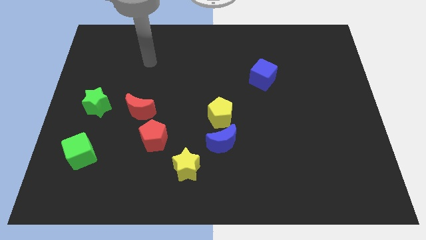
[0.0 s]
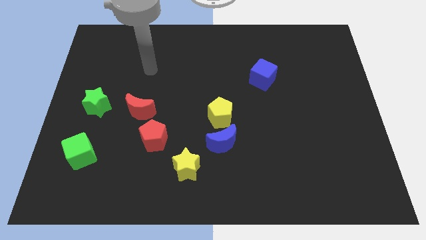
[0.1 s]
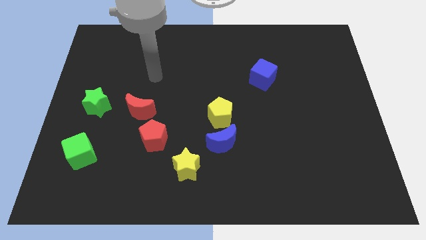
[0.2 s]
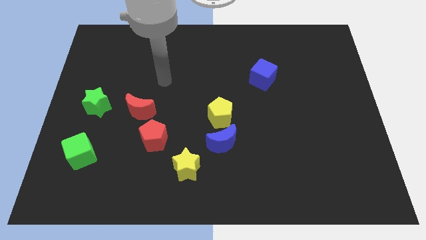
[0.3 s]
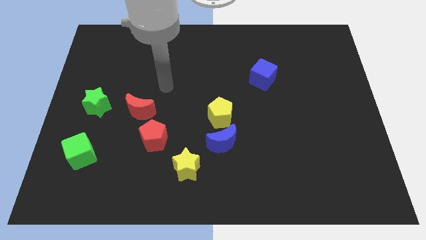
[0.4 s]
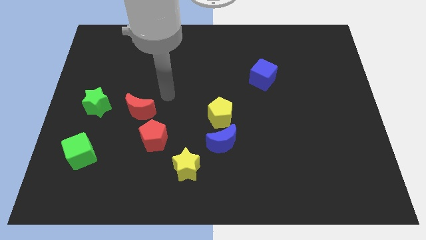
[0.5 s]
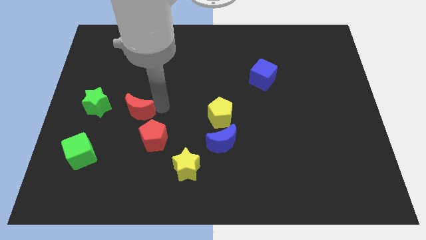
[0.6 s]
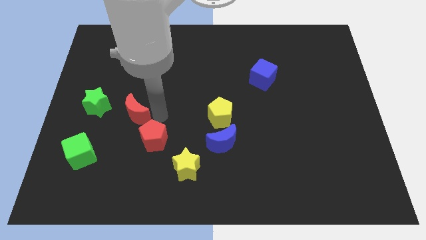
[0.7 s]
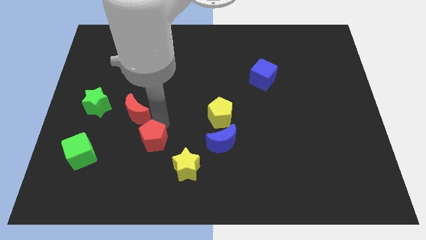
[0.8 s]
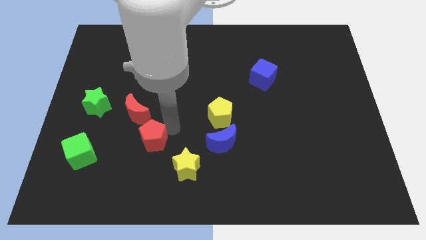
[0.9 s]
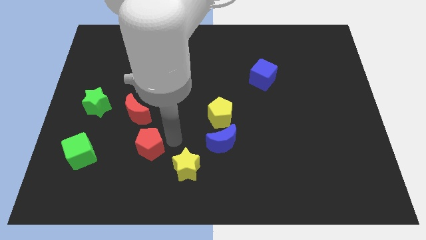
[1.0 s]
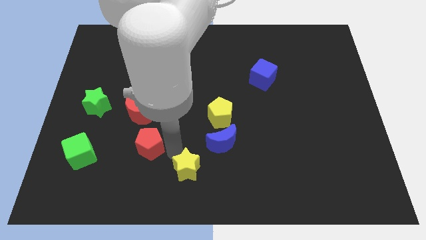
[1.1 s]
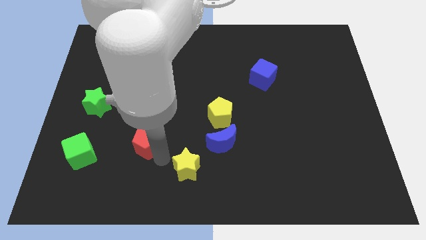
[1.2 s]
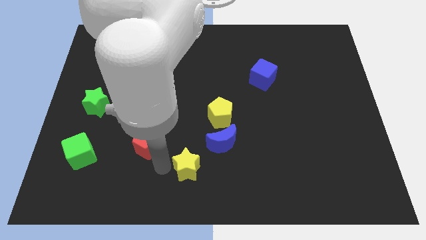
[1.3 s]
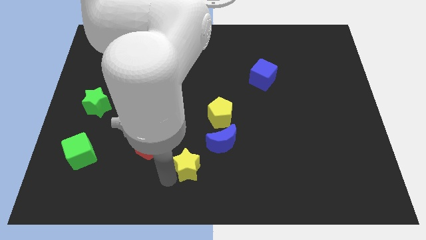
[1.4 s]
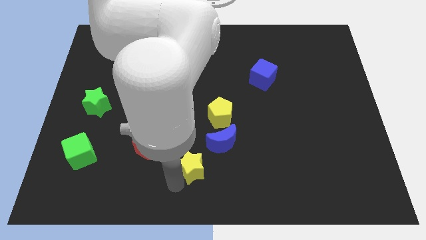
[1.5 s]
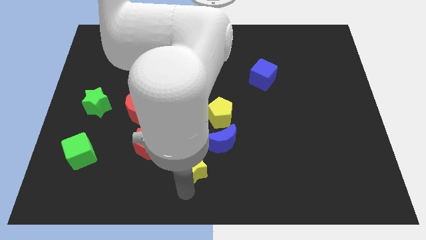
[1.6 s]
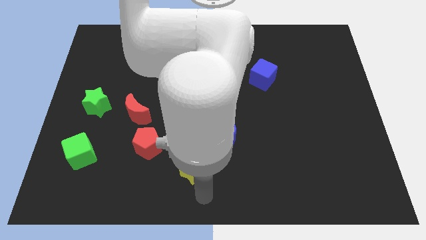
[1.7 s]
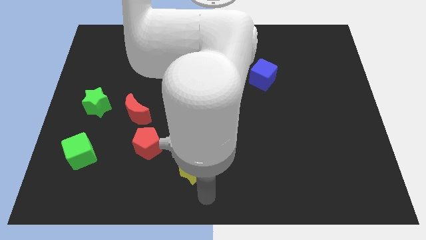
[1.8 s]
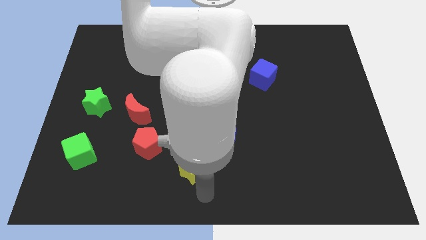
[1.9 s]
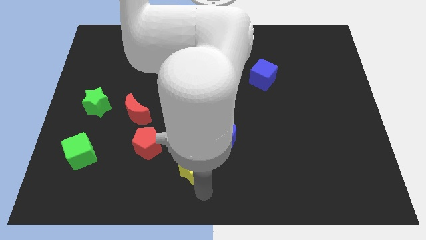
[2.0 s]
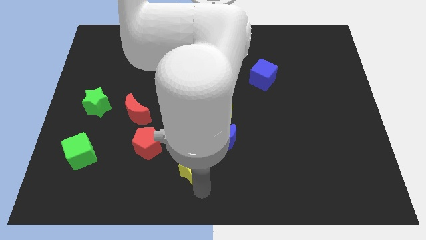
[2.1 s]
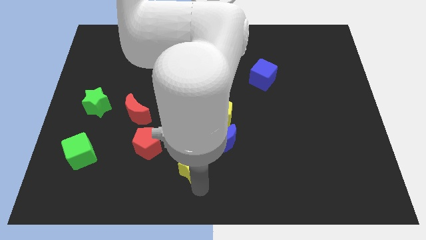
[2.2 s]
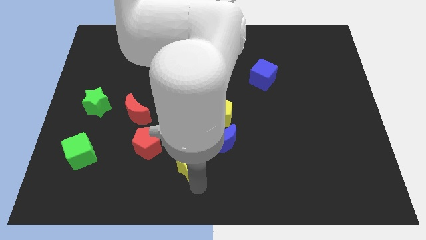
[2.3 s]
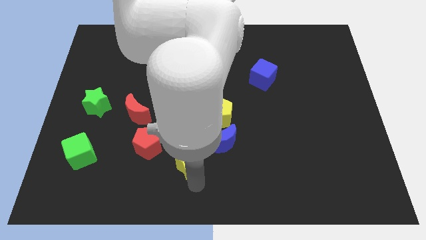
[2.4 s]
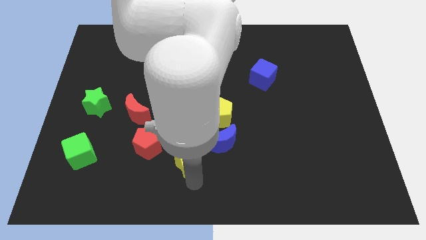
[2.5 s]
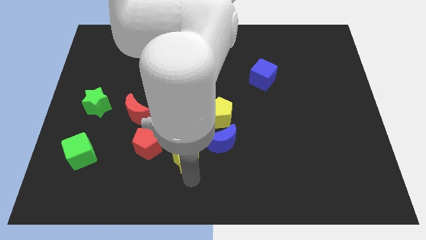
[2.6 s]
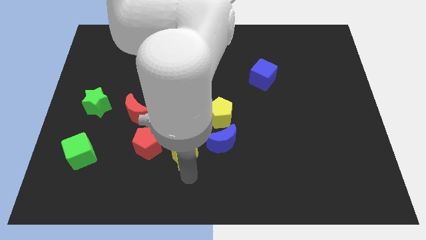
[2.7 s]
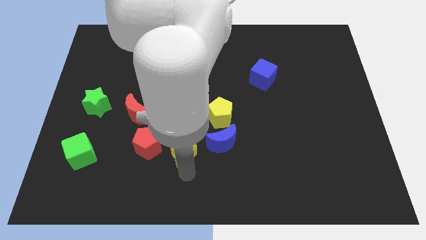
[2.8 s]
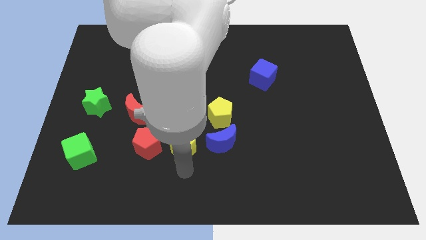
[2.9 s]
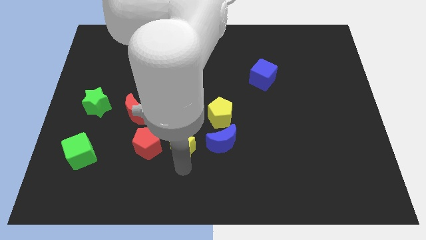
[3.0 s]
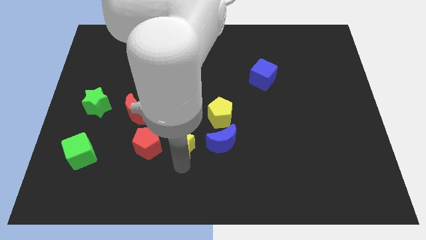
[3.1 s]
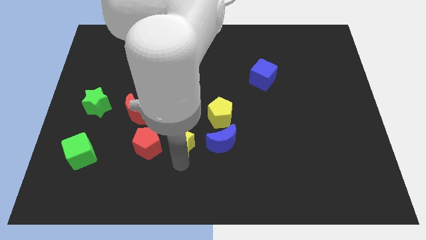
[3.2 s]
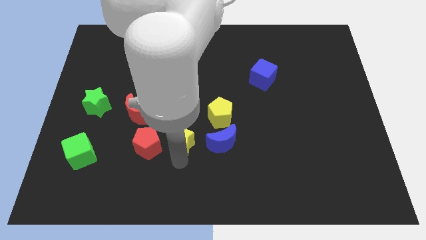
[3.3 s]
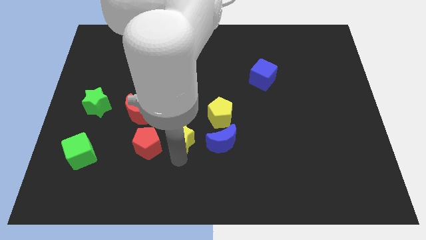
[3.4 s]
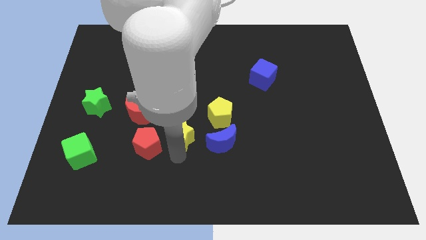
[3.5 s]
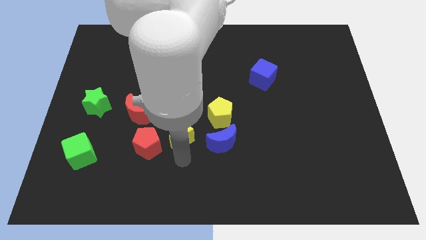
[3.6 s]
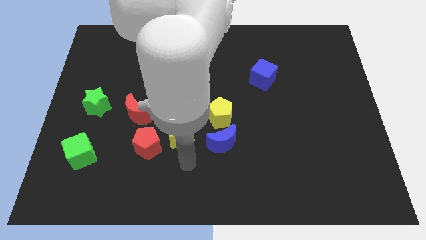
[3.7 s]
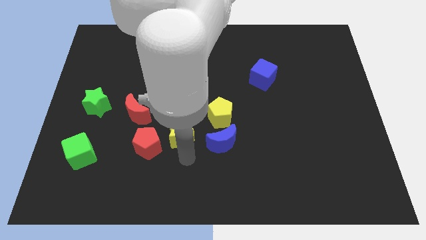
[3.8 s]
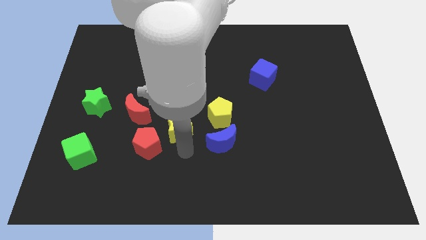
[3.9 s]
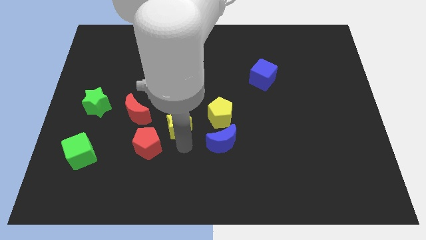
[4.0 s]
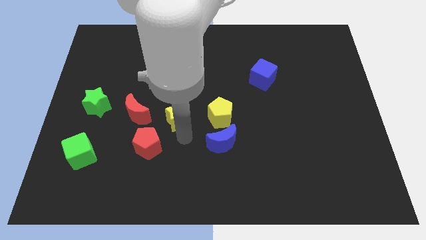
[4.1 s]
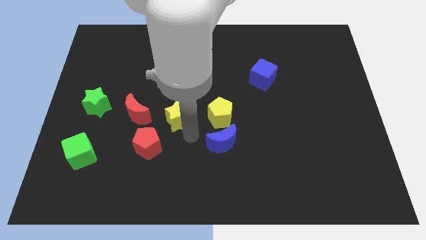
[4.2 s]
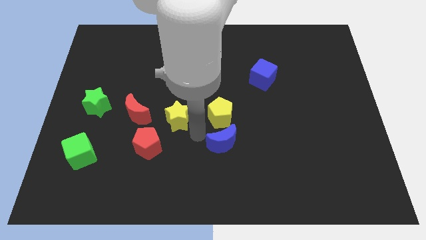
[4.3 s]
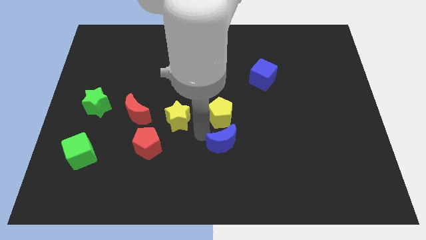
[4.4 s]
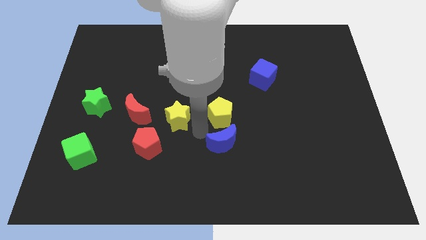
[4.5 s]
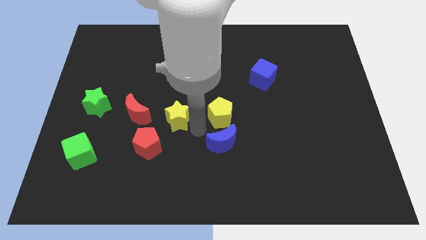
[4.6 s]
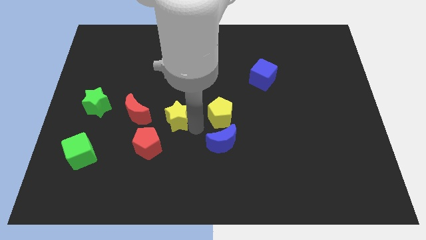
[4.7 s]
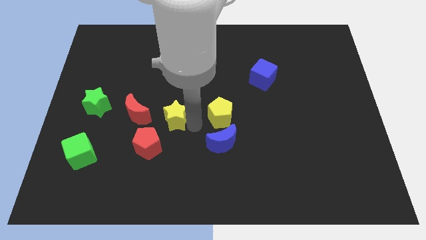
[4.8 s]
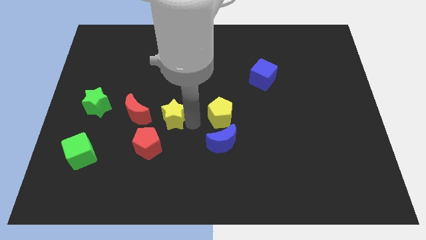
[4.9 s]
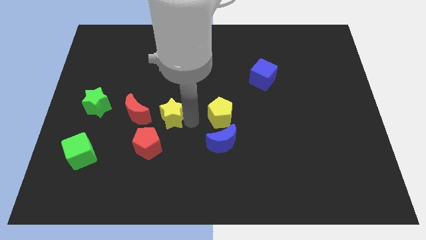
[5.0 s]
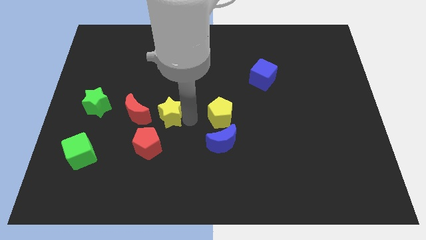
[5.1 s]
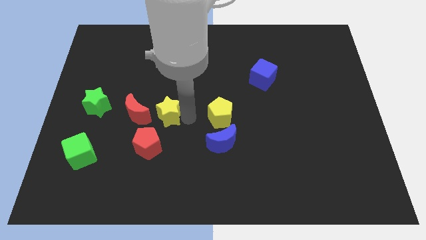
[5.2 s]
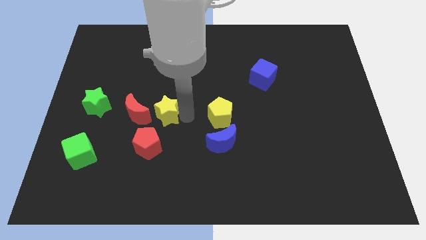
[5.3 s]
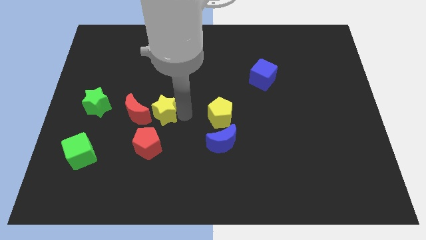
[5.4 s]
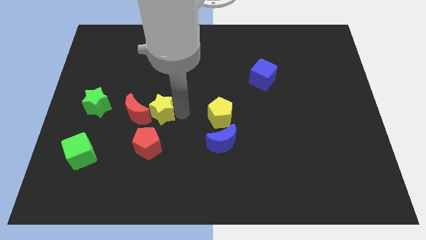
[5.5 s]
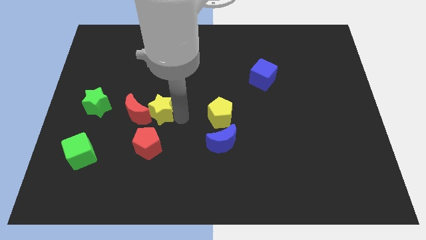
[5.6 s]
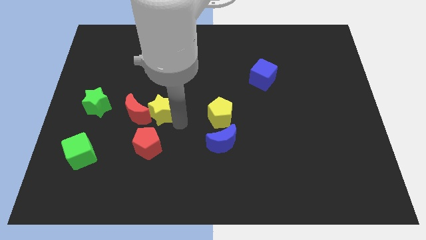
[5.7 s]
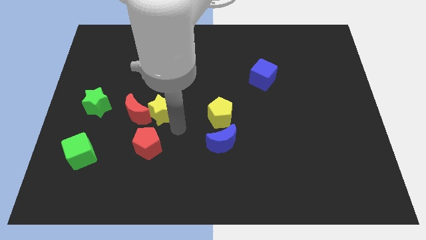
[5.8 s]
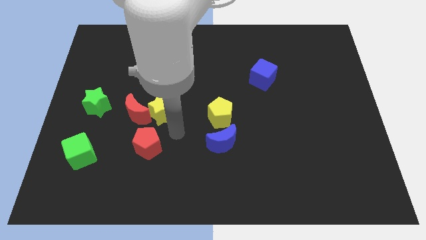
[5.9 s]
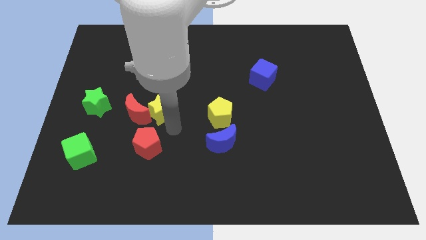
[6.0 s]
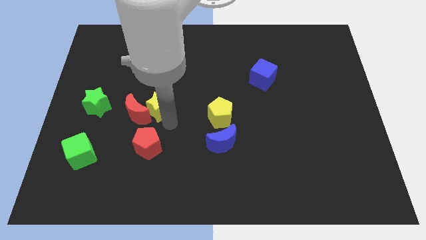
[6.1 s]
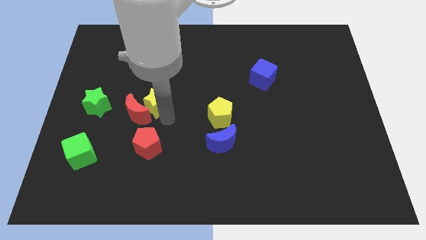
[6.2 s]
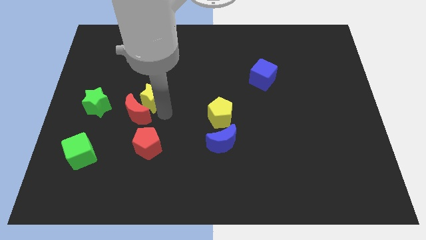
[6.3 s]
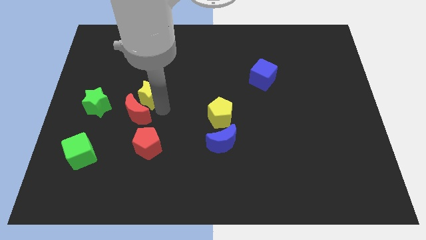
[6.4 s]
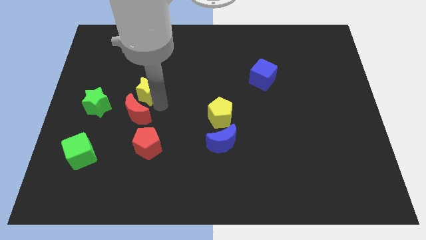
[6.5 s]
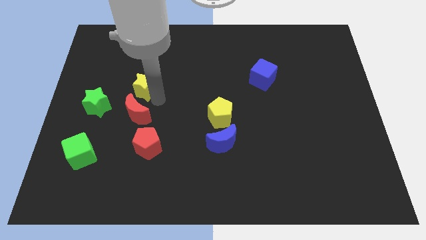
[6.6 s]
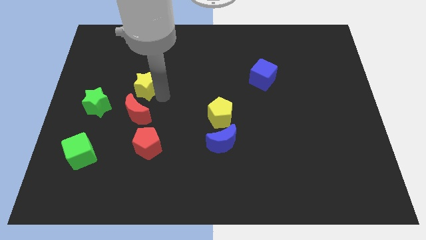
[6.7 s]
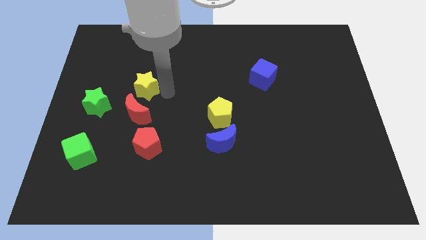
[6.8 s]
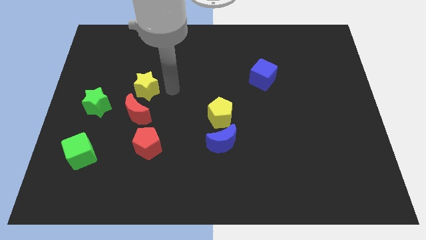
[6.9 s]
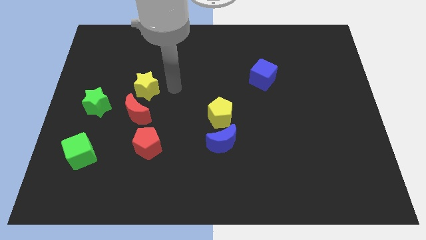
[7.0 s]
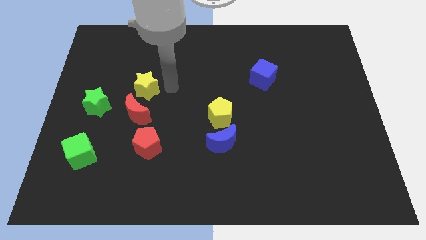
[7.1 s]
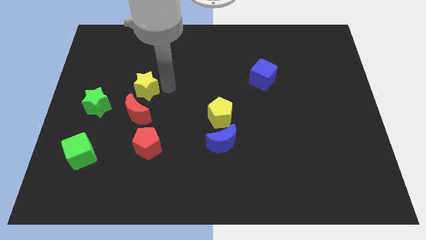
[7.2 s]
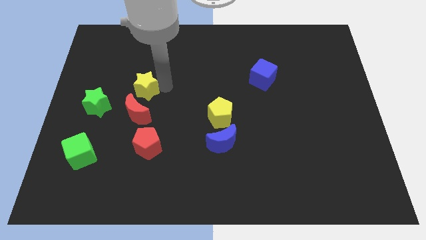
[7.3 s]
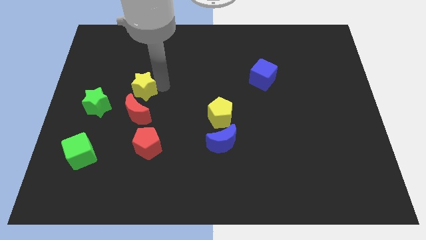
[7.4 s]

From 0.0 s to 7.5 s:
move the yellow star to the top right side of the green star
